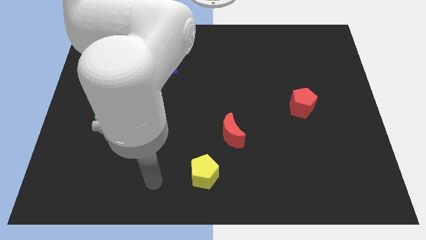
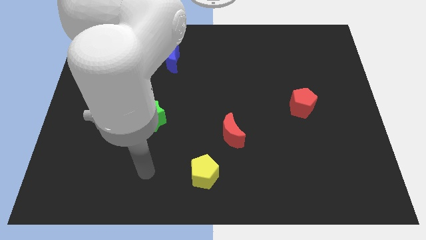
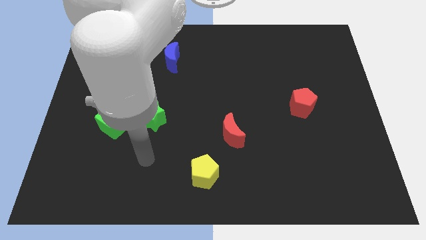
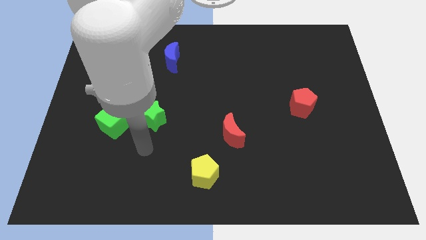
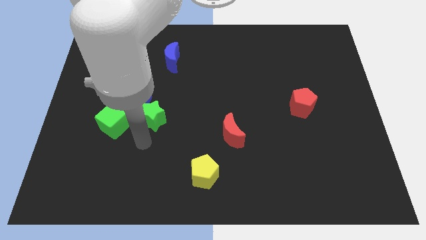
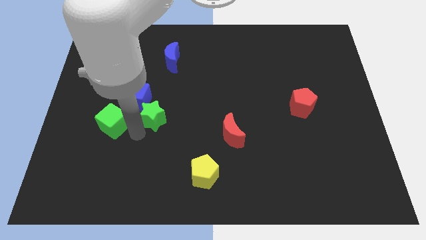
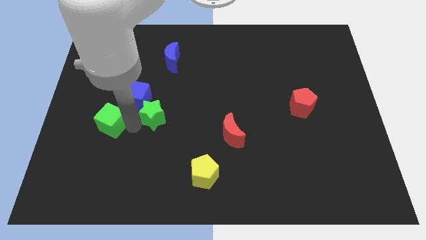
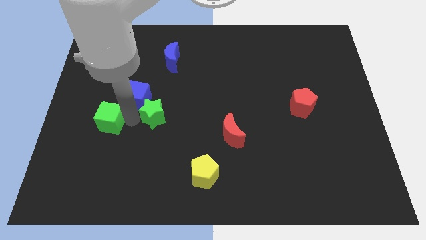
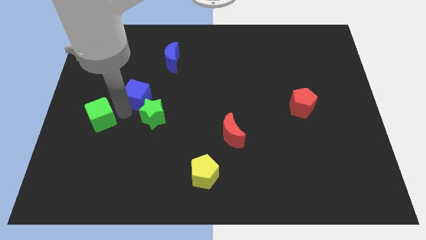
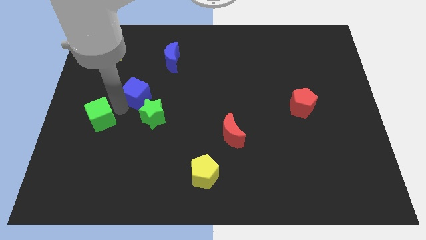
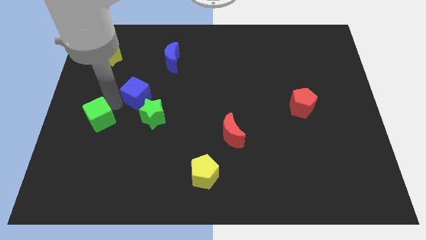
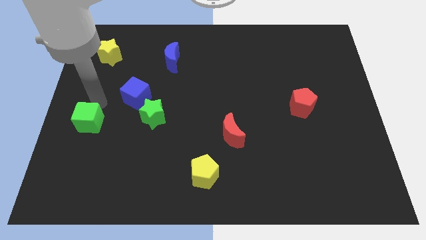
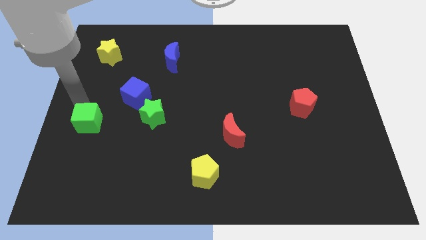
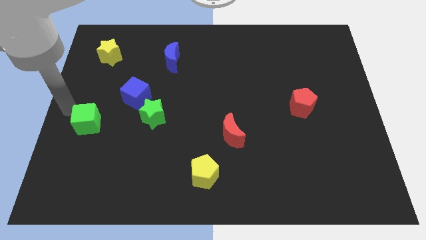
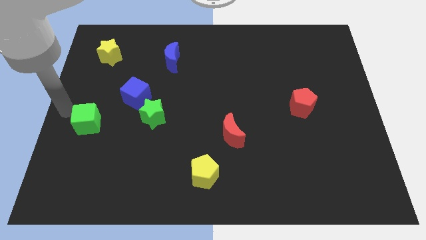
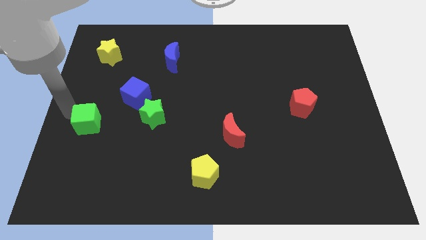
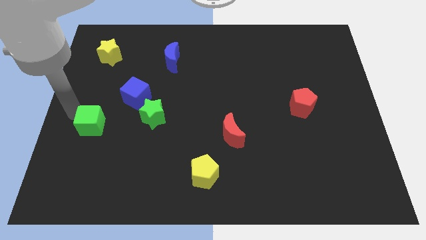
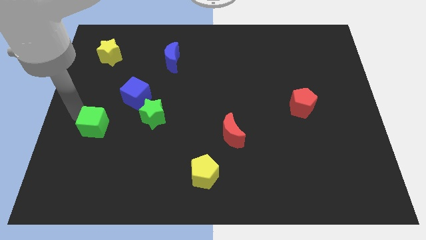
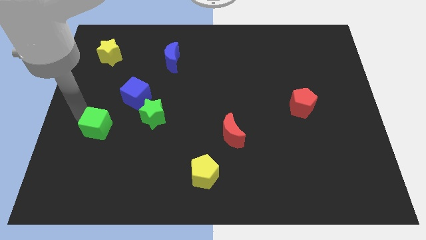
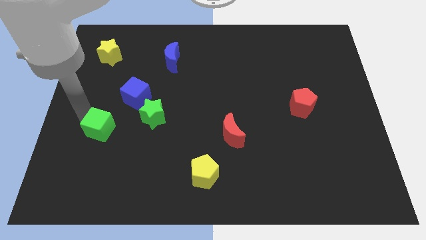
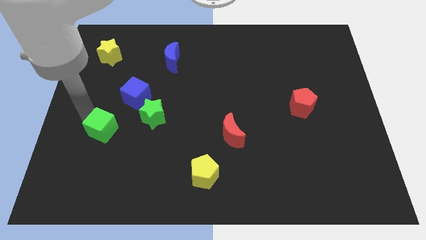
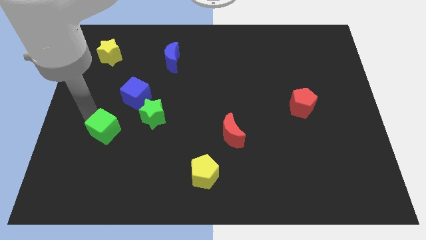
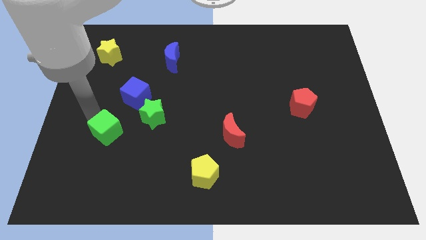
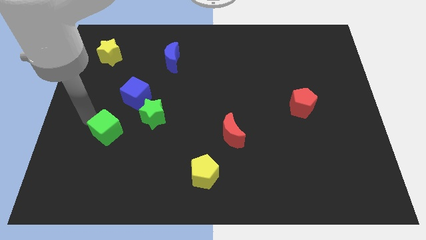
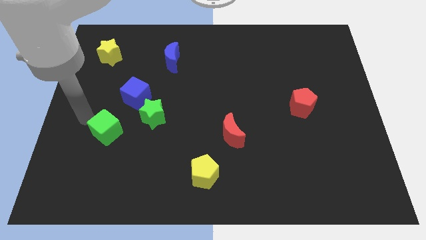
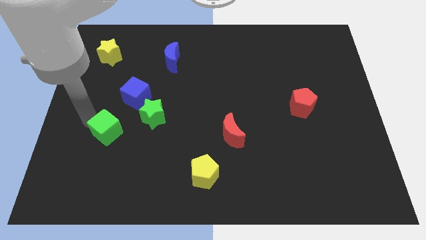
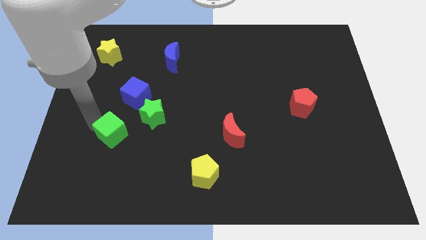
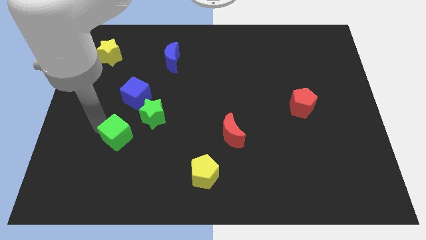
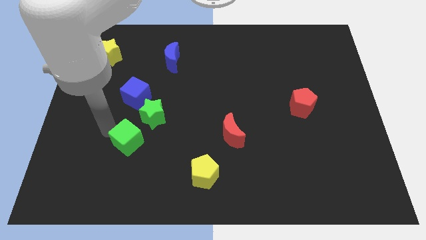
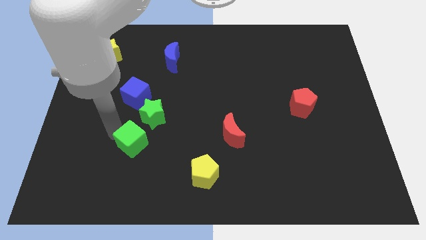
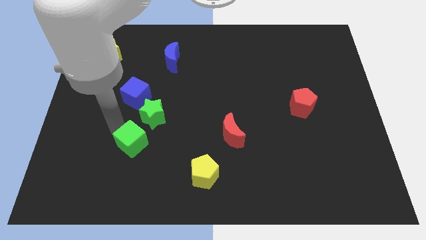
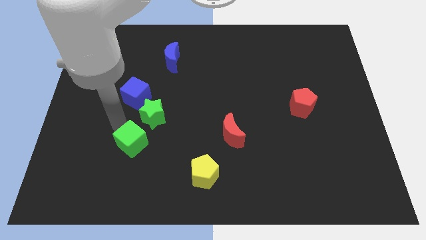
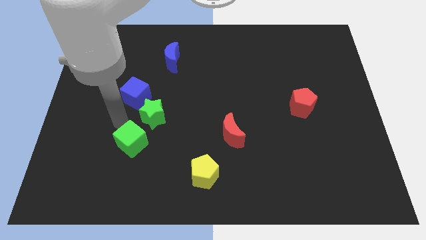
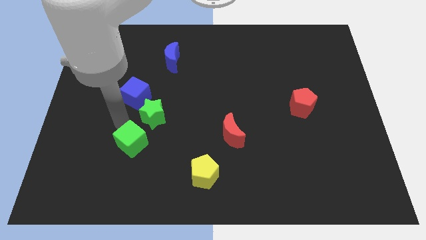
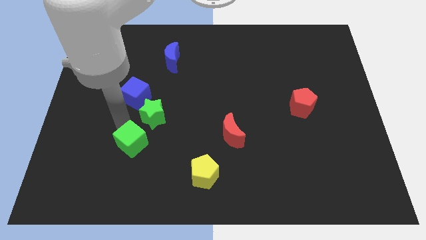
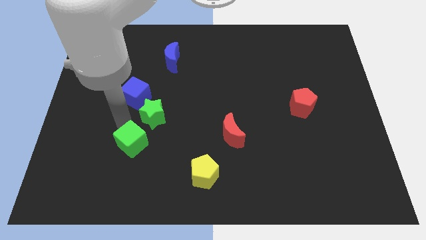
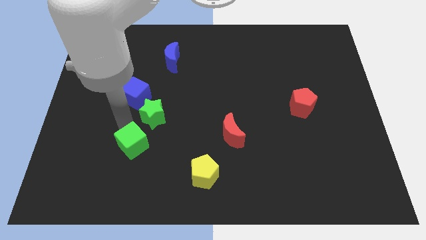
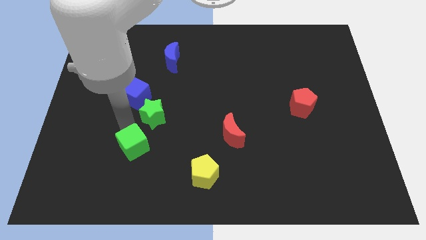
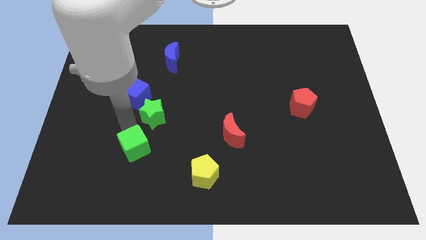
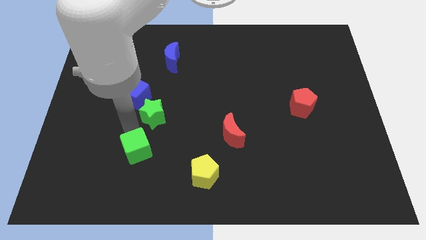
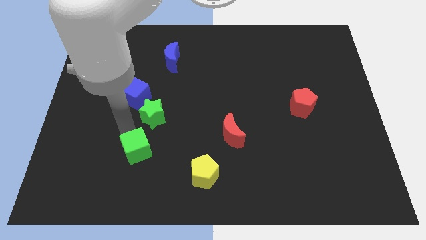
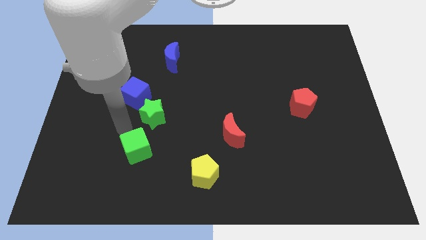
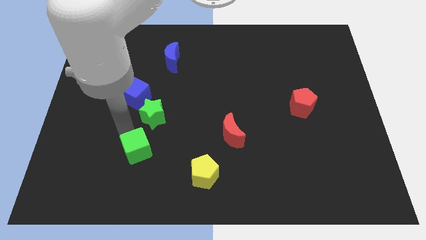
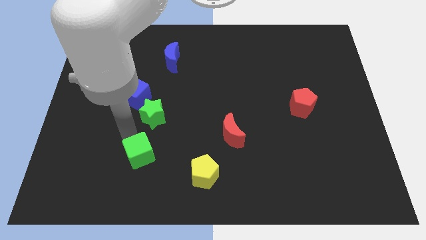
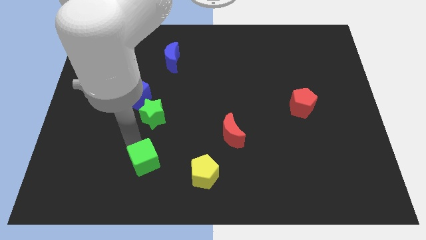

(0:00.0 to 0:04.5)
push the green cube to the left side of the yellow pentagon

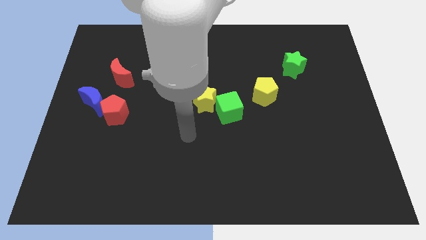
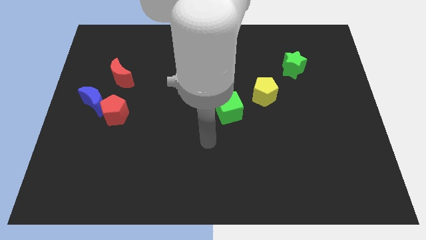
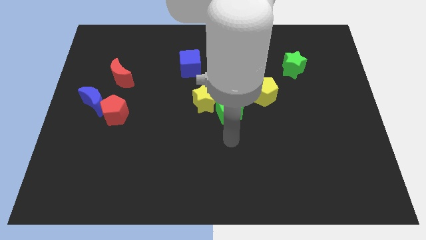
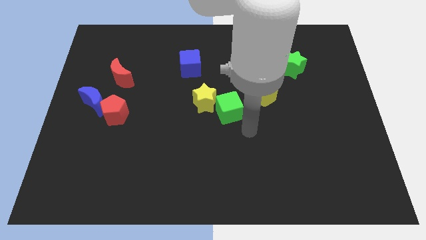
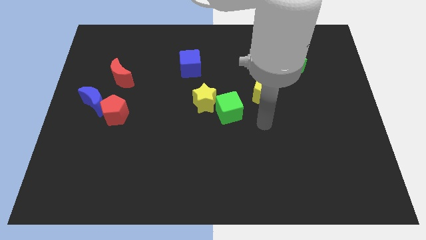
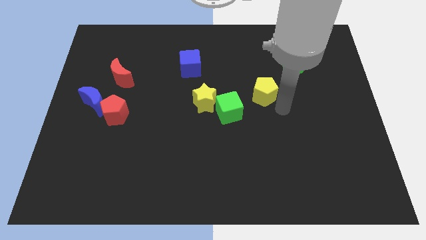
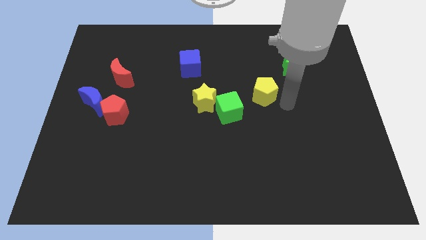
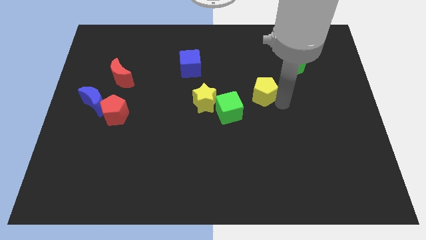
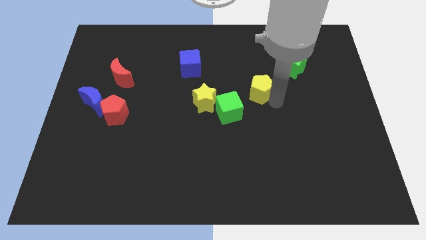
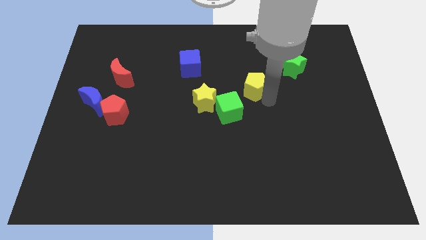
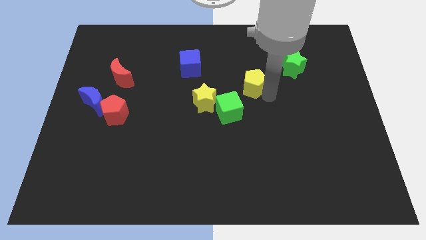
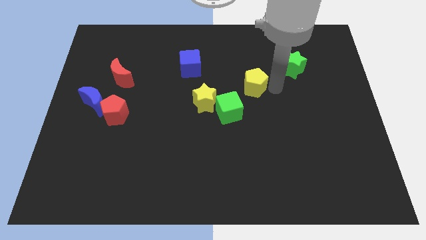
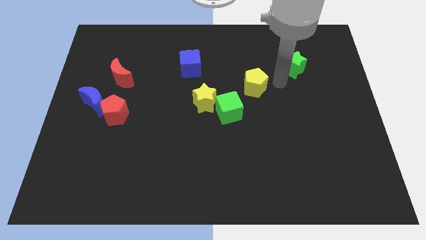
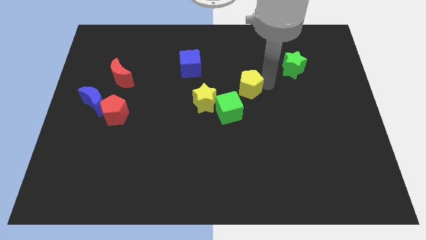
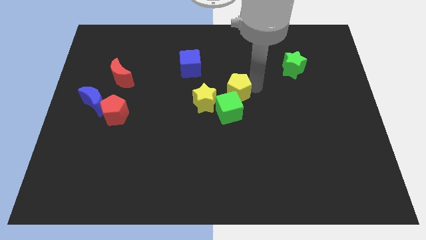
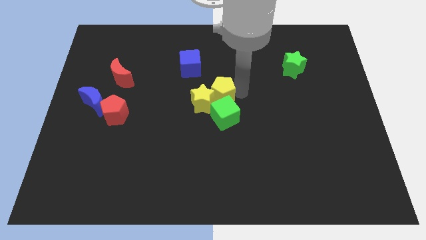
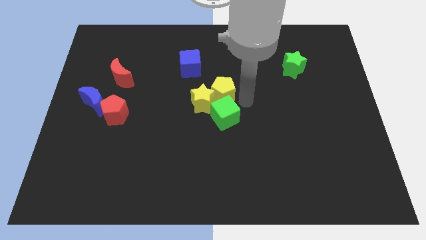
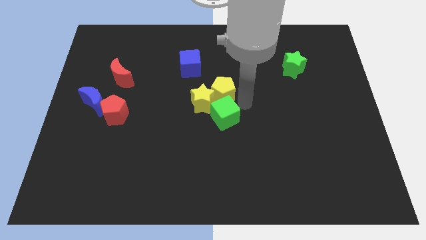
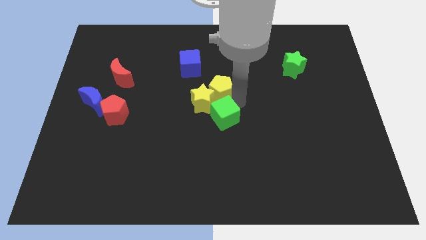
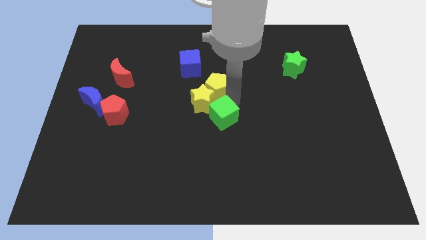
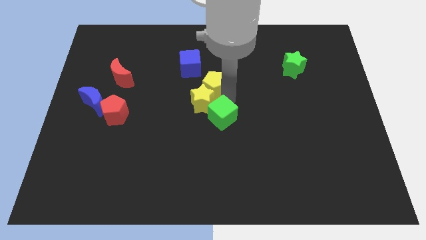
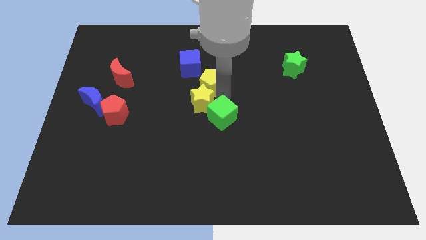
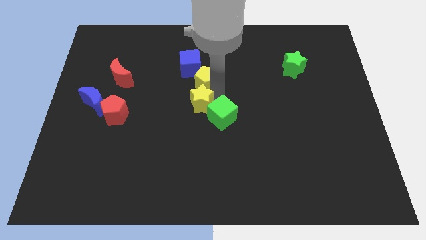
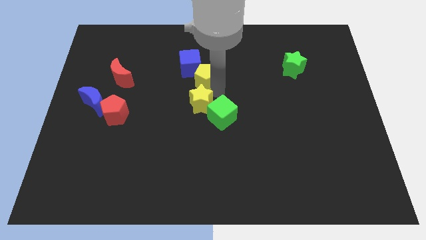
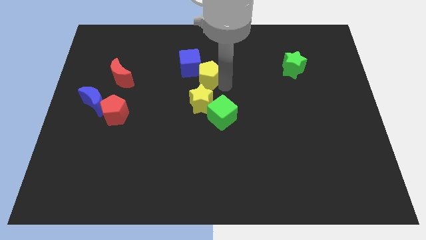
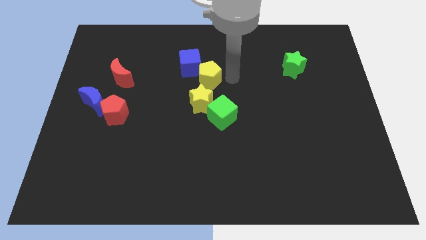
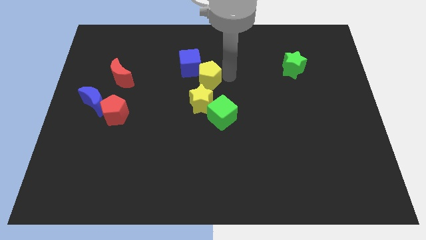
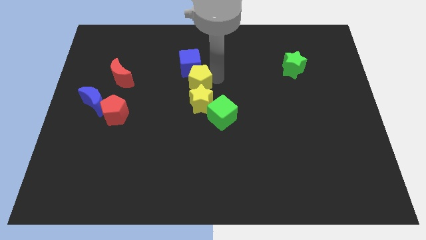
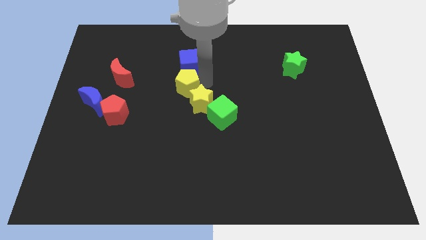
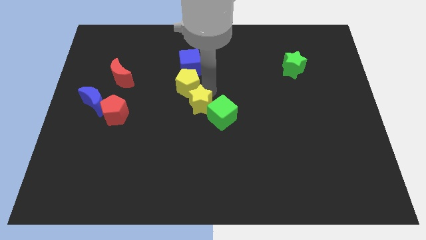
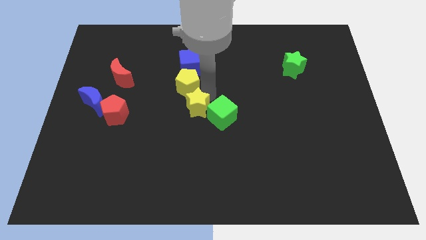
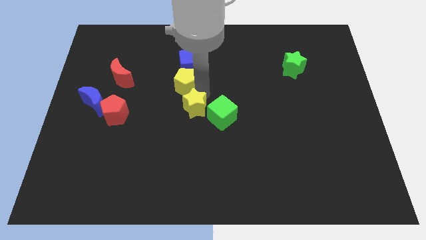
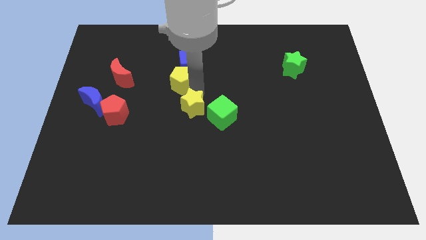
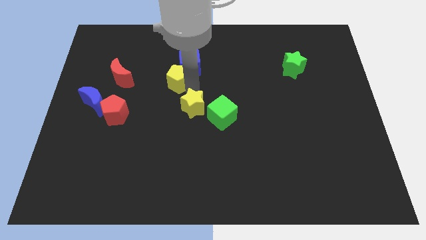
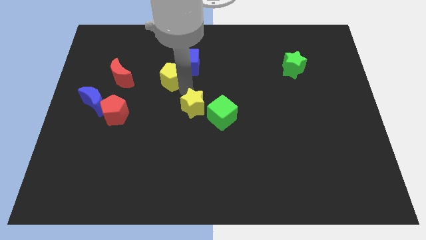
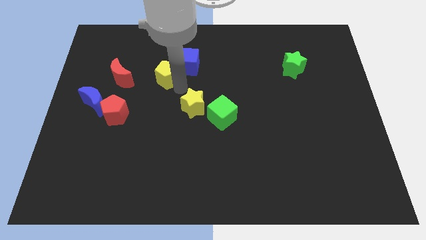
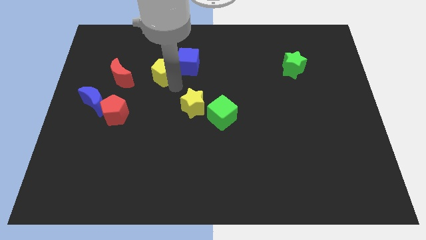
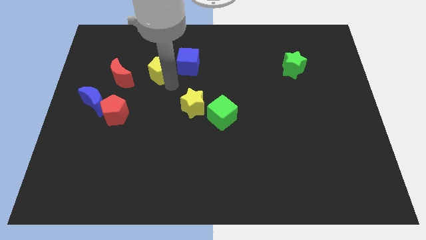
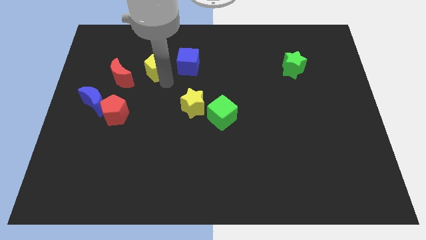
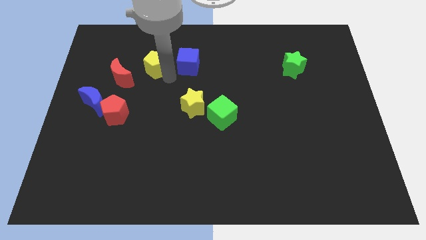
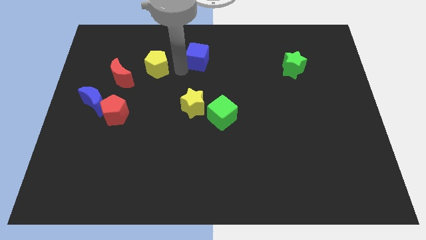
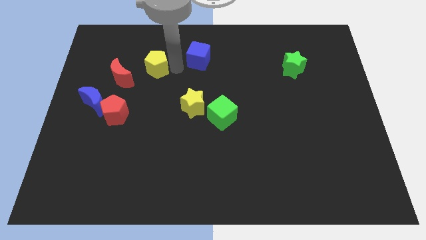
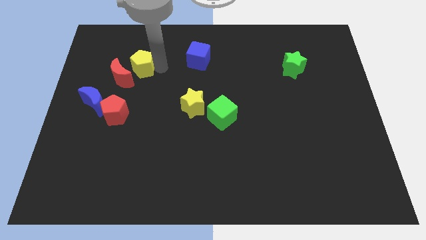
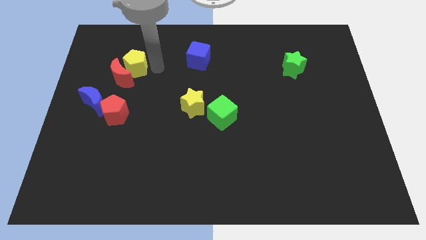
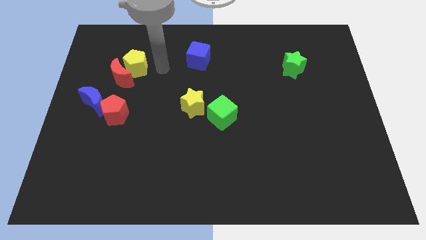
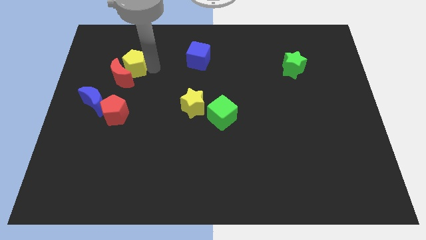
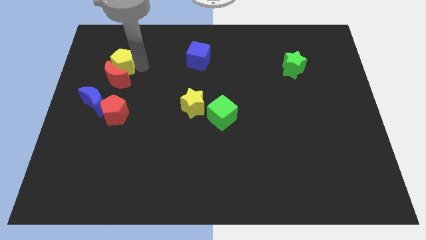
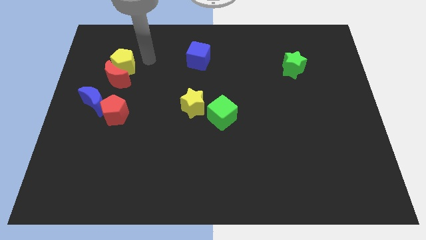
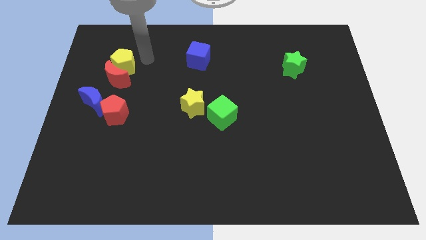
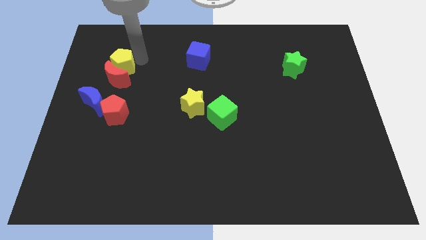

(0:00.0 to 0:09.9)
move the yellow pentagon above the blue moon
